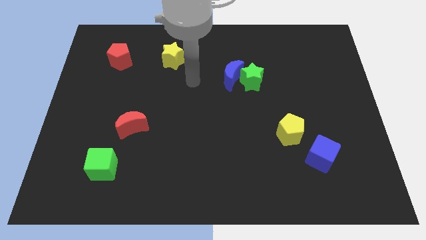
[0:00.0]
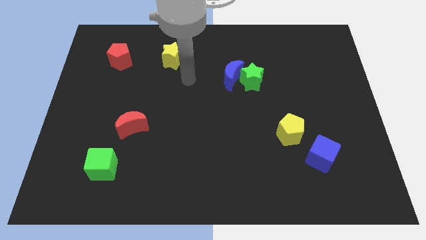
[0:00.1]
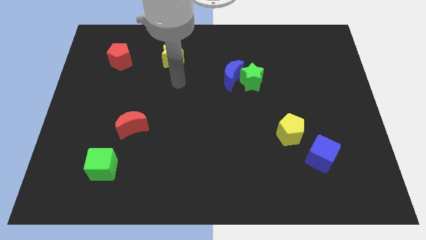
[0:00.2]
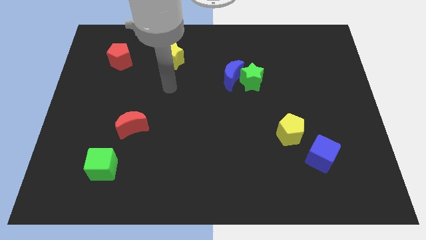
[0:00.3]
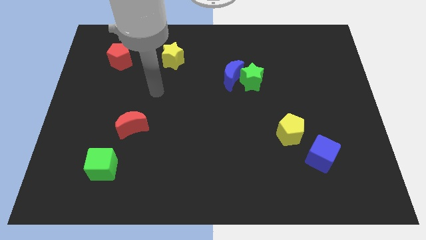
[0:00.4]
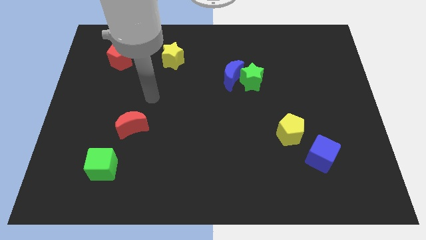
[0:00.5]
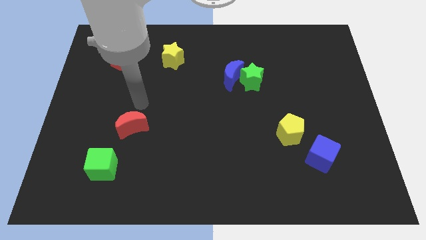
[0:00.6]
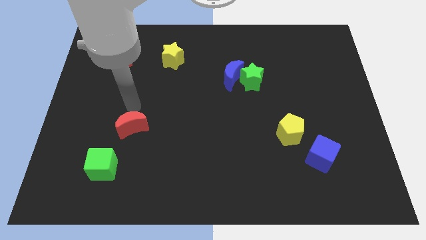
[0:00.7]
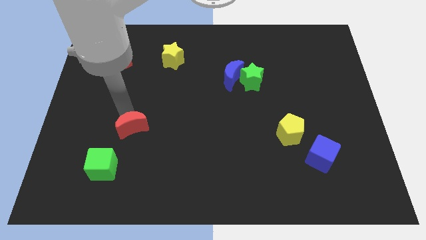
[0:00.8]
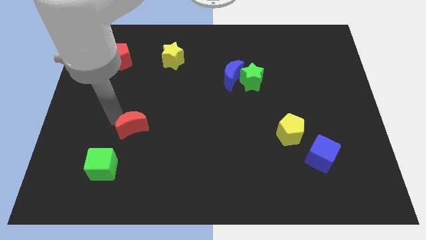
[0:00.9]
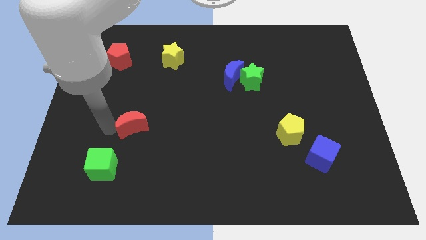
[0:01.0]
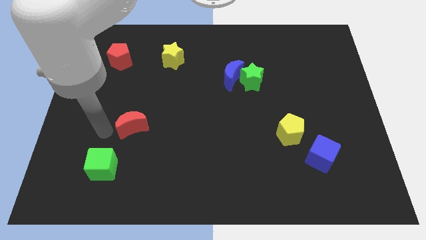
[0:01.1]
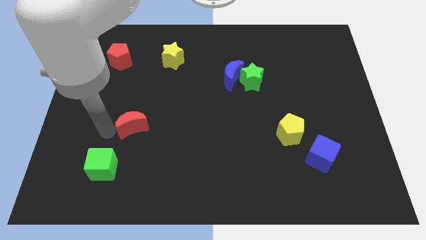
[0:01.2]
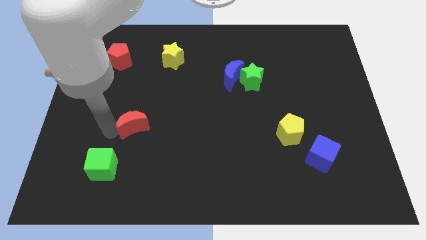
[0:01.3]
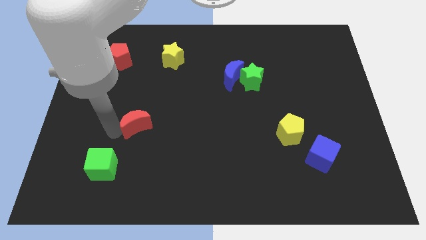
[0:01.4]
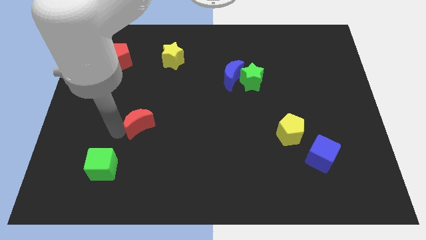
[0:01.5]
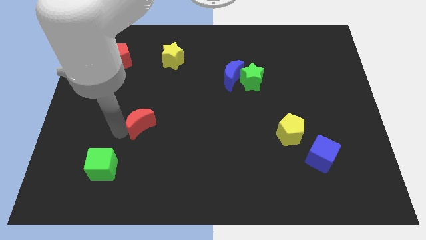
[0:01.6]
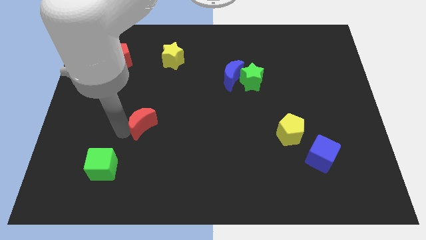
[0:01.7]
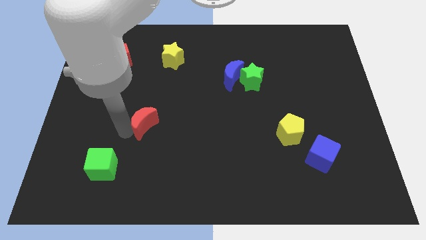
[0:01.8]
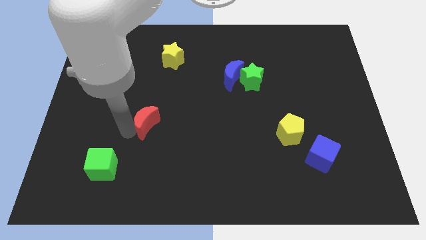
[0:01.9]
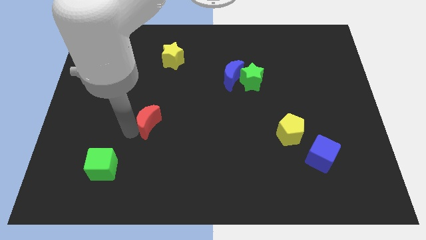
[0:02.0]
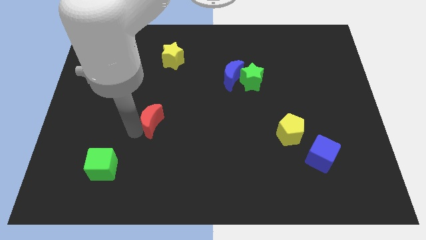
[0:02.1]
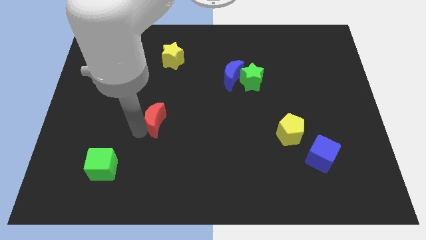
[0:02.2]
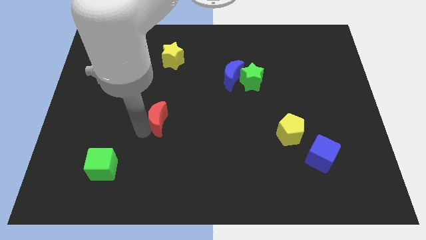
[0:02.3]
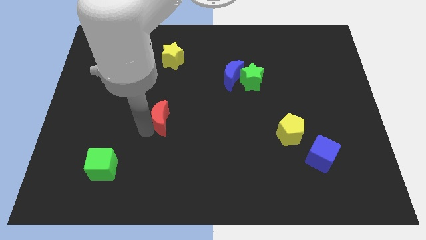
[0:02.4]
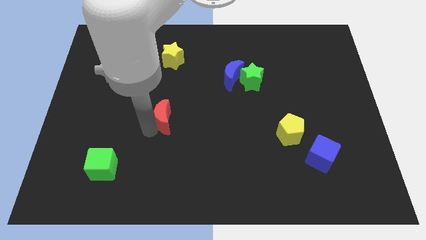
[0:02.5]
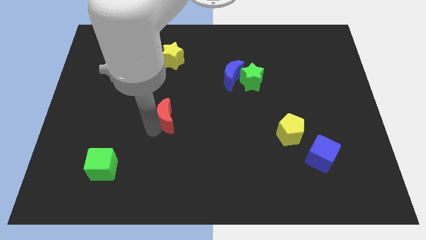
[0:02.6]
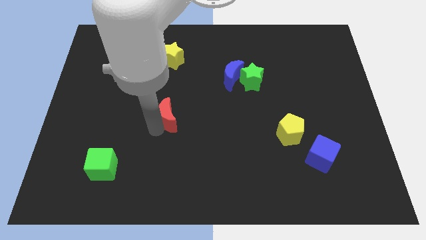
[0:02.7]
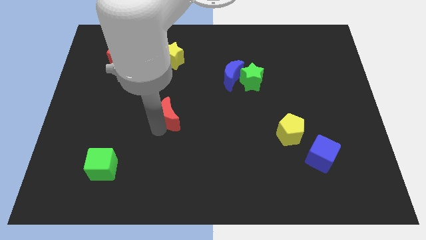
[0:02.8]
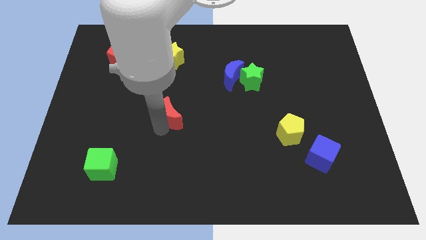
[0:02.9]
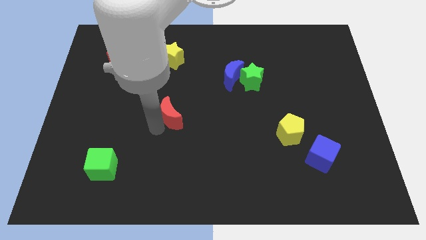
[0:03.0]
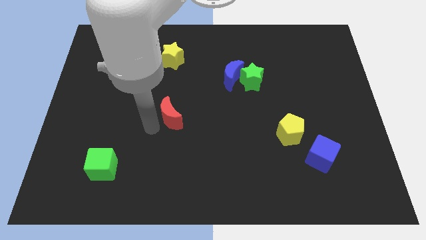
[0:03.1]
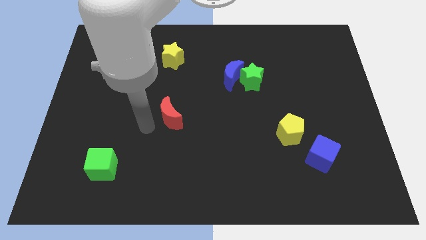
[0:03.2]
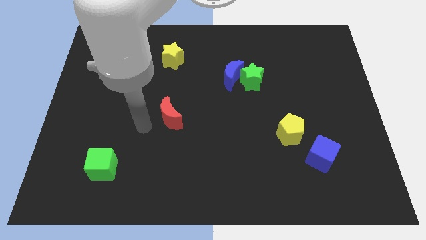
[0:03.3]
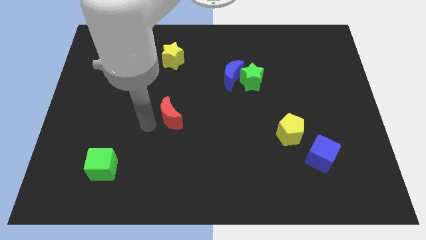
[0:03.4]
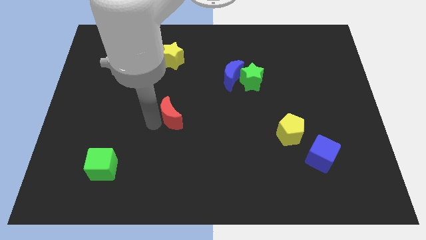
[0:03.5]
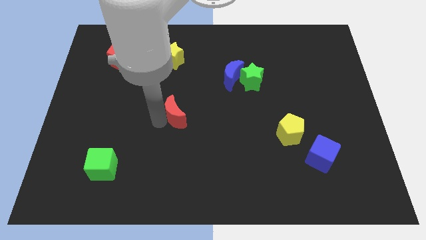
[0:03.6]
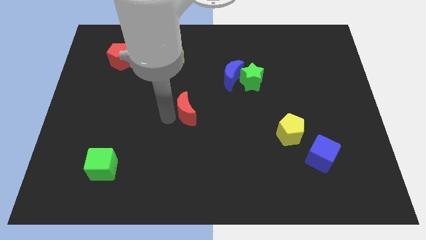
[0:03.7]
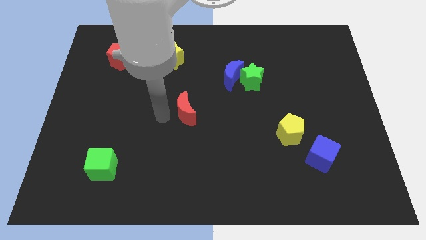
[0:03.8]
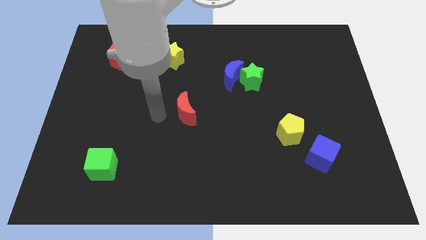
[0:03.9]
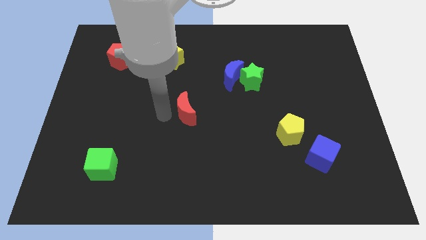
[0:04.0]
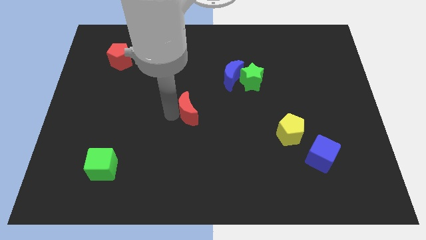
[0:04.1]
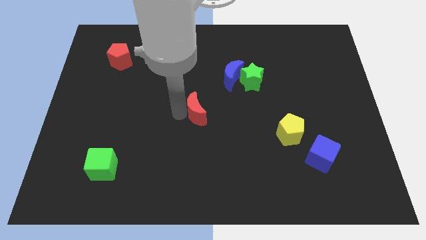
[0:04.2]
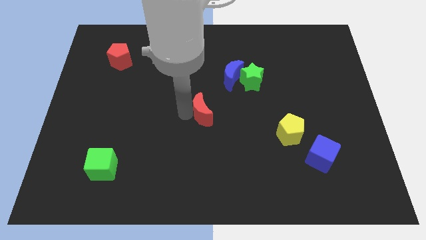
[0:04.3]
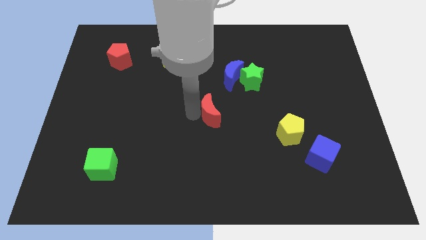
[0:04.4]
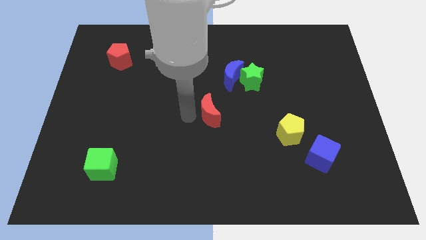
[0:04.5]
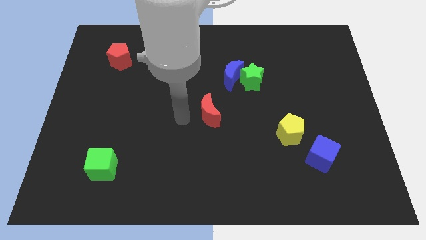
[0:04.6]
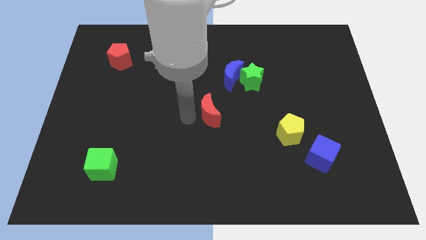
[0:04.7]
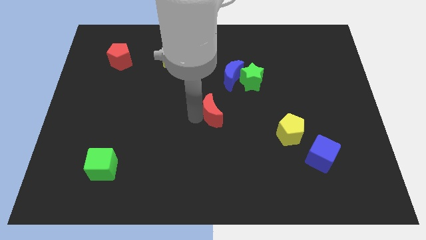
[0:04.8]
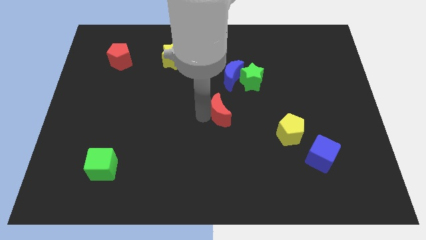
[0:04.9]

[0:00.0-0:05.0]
slide the red moon to the bottom side of the blue moon

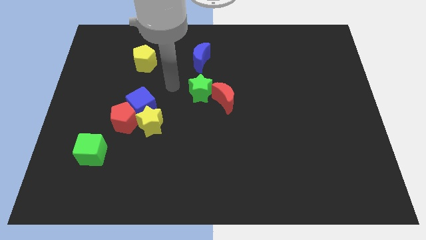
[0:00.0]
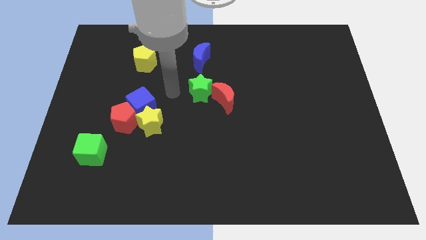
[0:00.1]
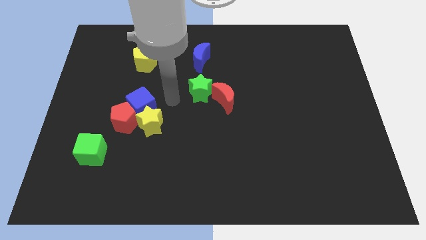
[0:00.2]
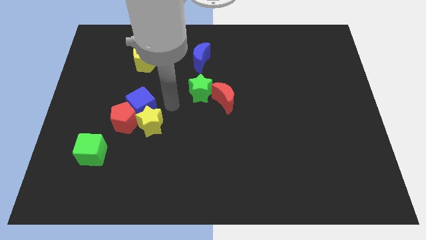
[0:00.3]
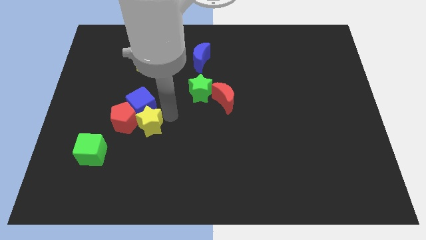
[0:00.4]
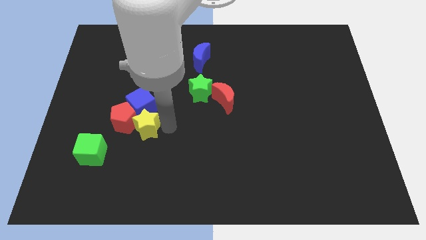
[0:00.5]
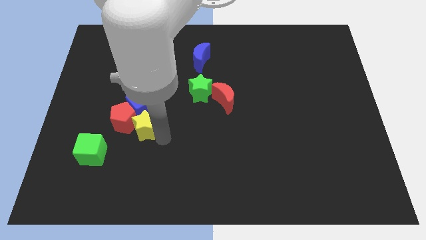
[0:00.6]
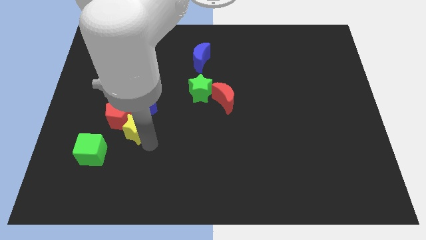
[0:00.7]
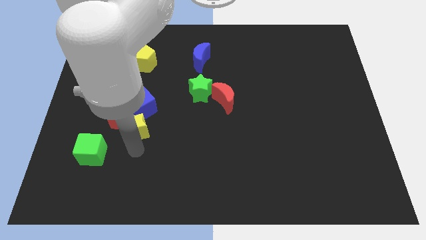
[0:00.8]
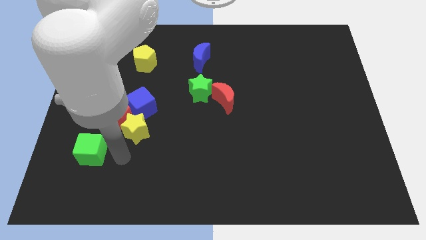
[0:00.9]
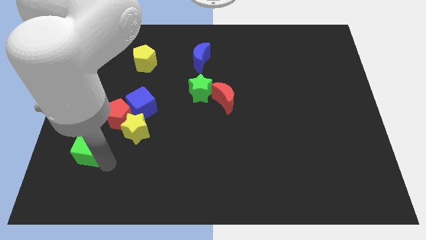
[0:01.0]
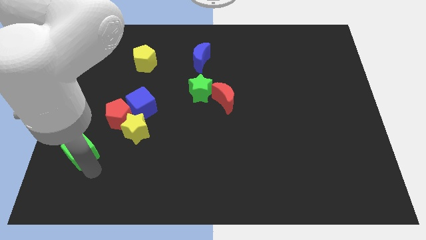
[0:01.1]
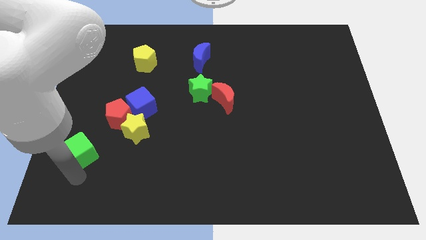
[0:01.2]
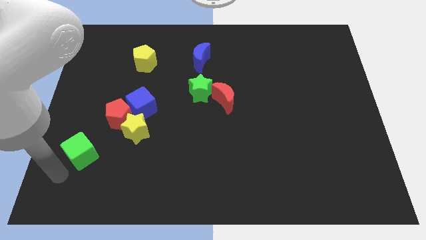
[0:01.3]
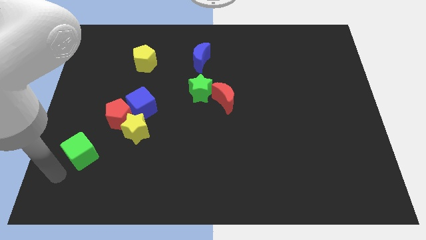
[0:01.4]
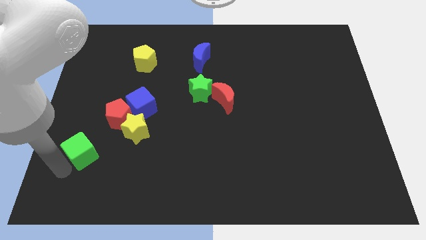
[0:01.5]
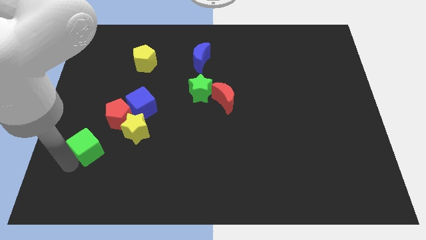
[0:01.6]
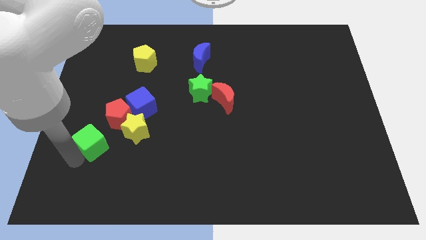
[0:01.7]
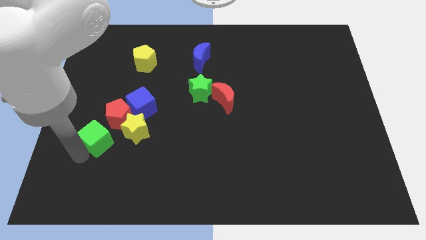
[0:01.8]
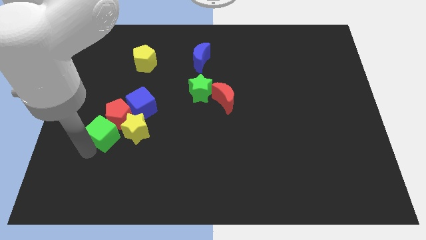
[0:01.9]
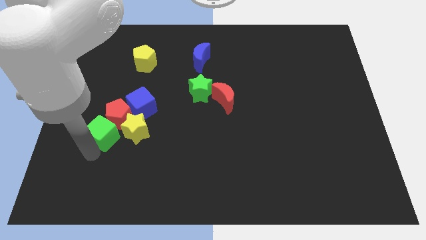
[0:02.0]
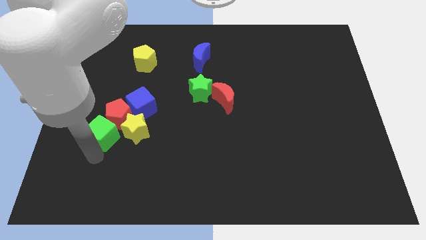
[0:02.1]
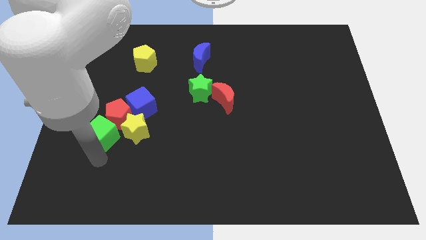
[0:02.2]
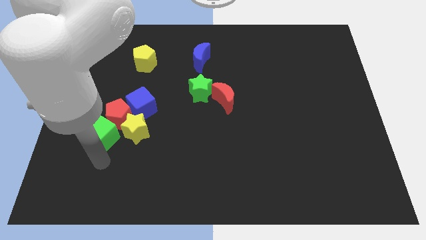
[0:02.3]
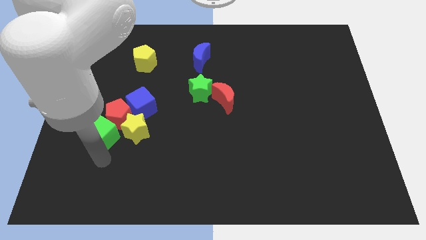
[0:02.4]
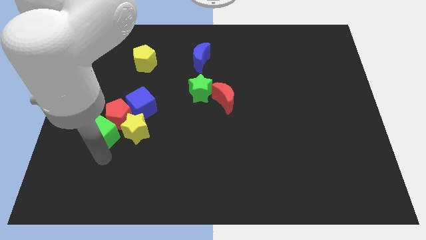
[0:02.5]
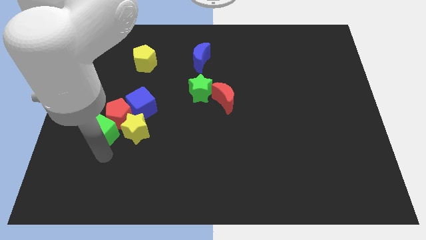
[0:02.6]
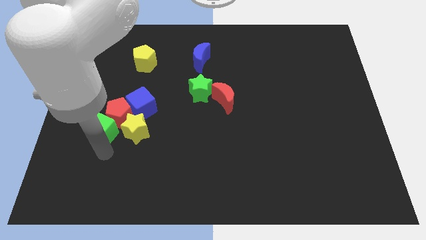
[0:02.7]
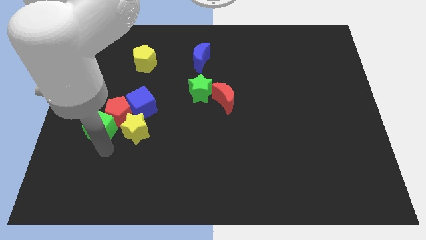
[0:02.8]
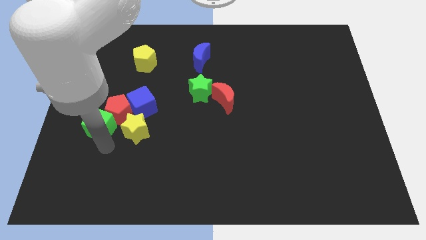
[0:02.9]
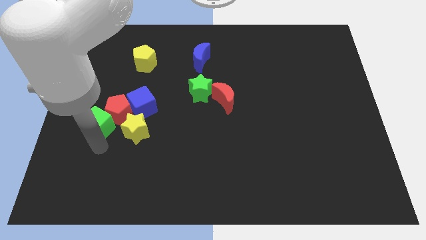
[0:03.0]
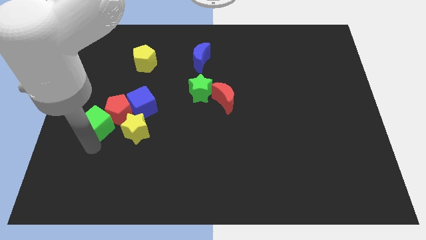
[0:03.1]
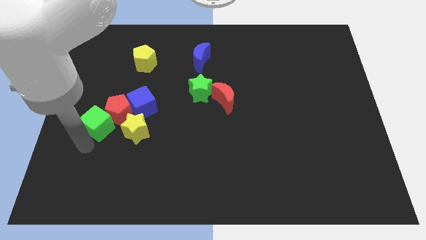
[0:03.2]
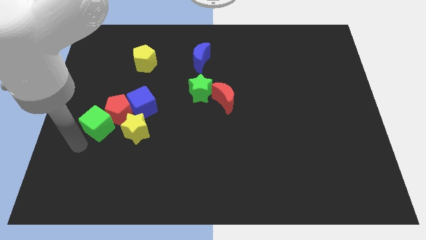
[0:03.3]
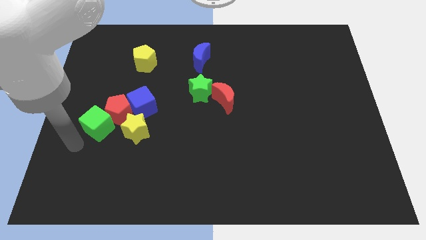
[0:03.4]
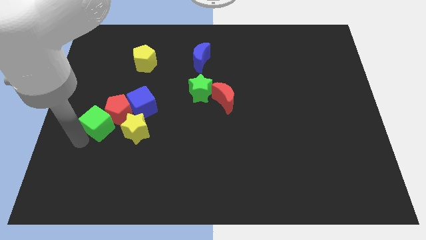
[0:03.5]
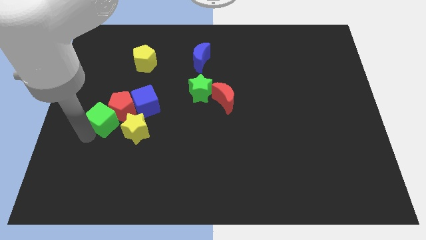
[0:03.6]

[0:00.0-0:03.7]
move the green cube to the top left side of the yellow star
